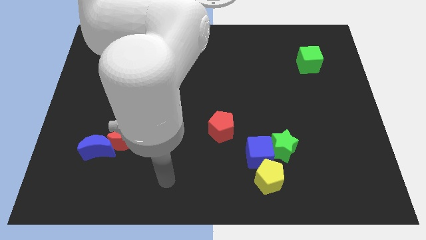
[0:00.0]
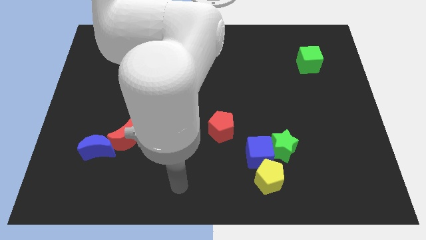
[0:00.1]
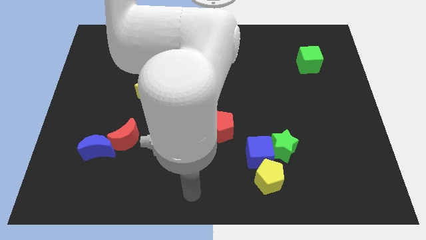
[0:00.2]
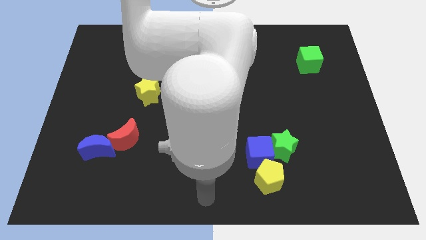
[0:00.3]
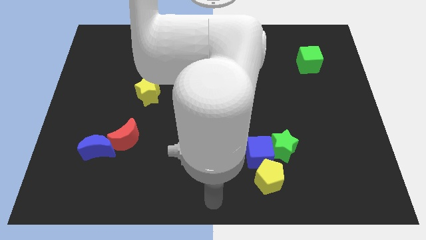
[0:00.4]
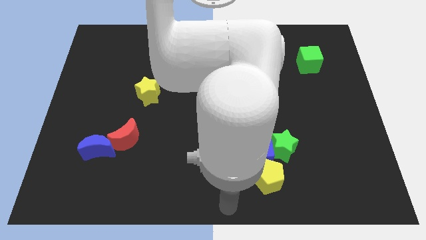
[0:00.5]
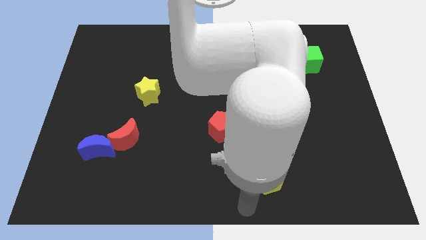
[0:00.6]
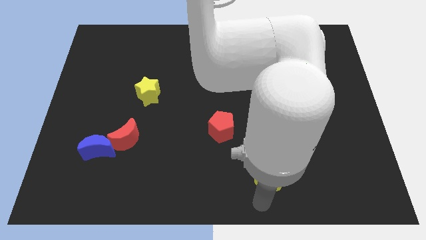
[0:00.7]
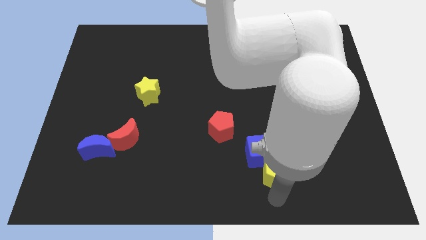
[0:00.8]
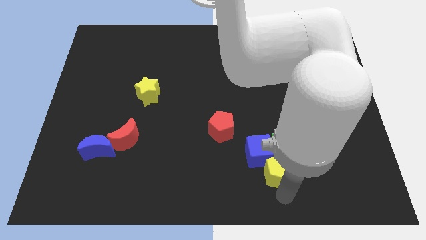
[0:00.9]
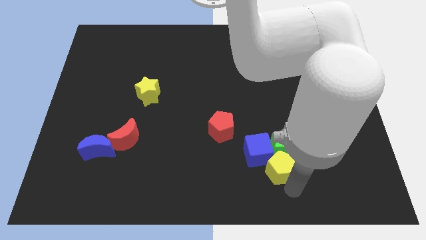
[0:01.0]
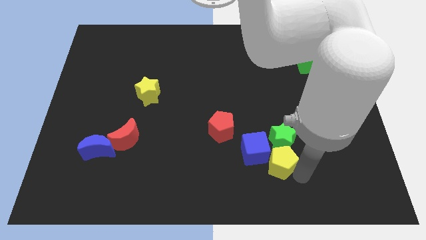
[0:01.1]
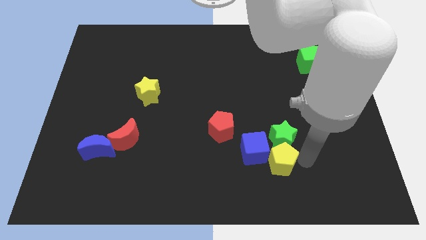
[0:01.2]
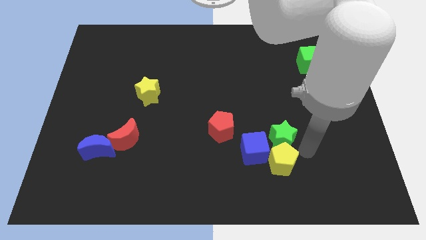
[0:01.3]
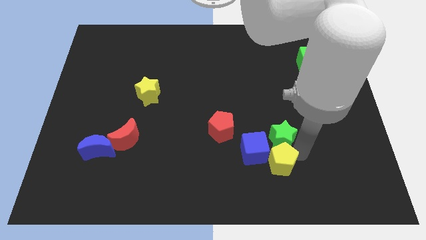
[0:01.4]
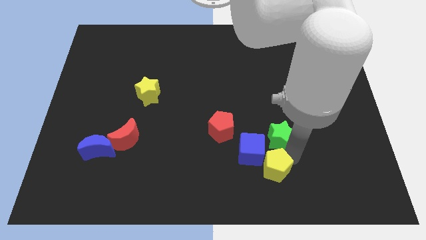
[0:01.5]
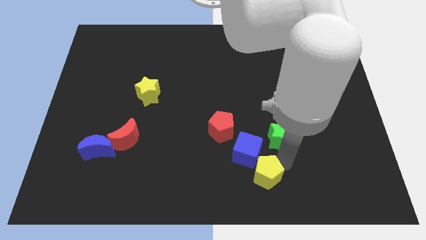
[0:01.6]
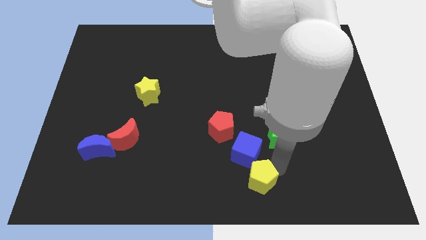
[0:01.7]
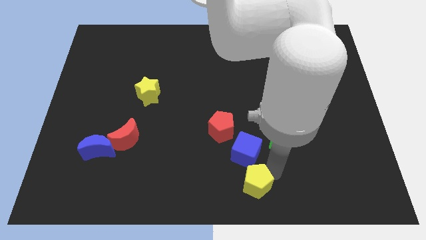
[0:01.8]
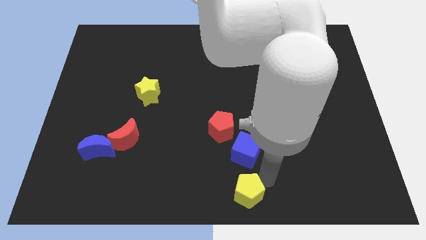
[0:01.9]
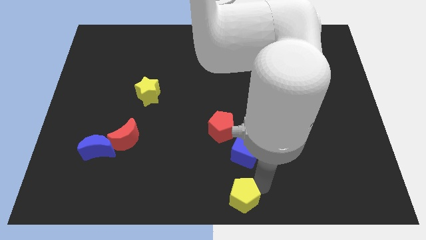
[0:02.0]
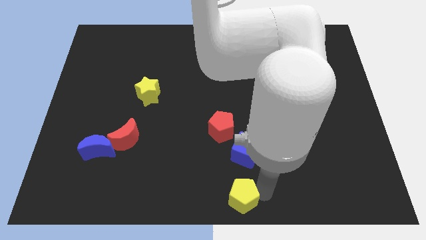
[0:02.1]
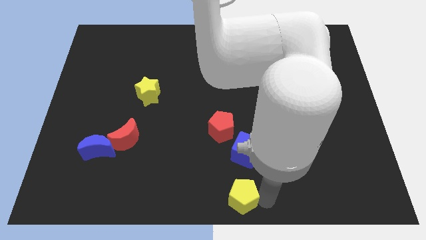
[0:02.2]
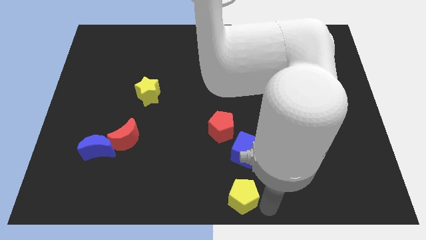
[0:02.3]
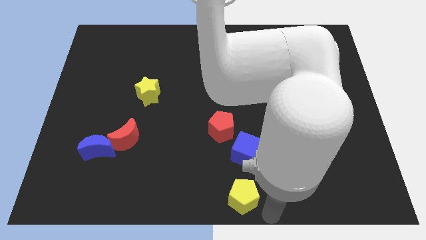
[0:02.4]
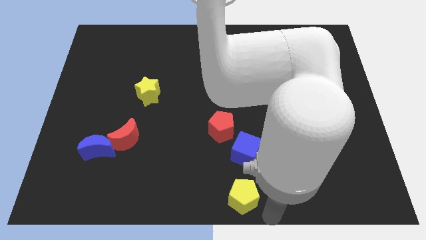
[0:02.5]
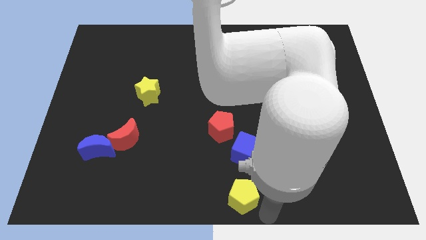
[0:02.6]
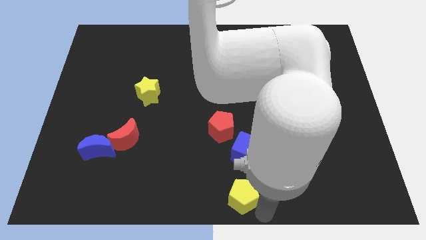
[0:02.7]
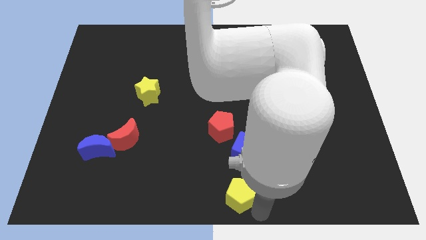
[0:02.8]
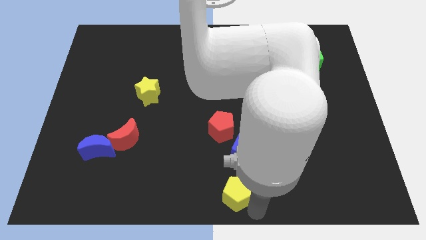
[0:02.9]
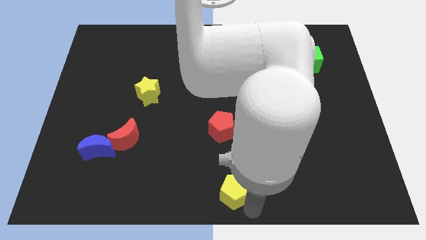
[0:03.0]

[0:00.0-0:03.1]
slide the yellow pentagon slightly left

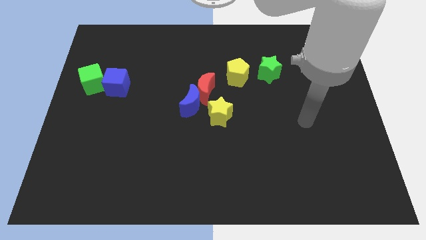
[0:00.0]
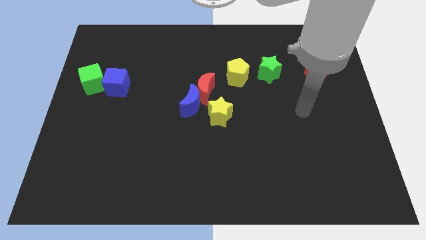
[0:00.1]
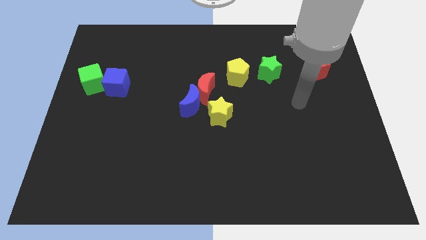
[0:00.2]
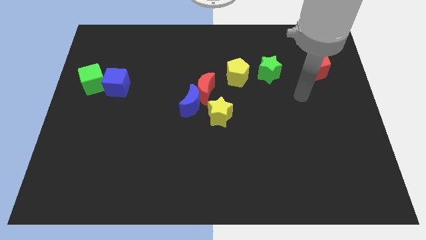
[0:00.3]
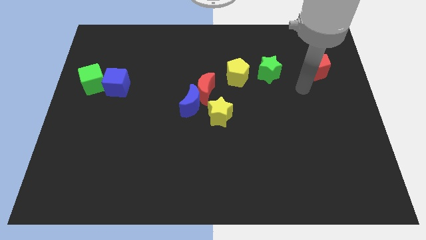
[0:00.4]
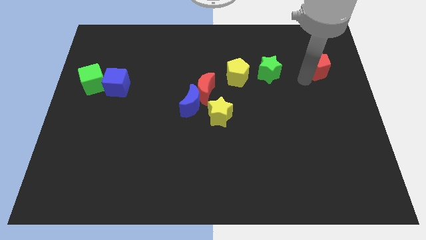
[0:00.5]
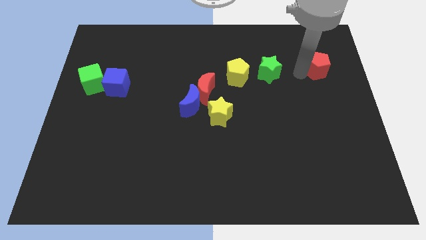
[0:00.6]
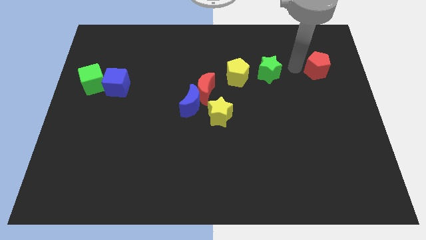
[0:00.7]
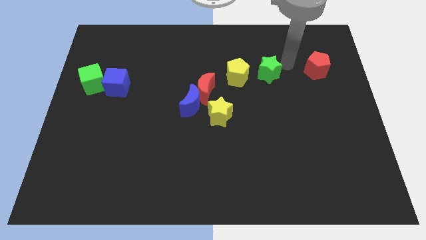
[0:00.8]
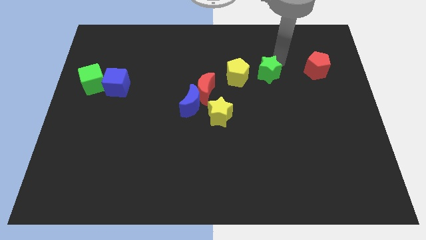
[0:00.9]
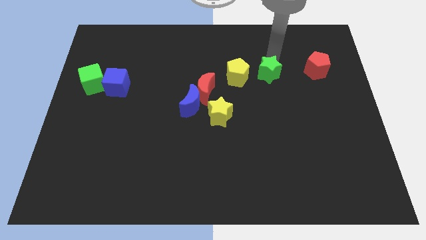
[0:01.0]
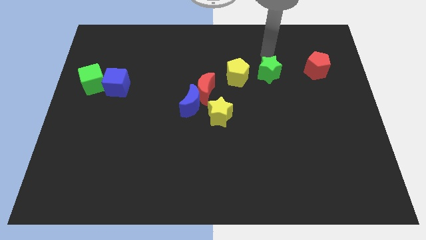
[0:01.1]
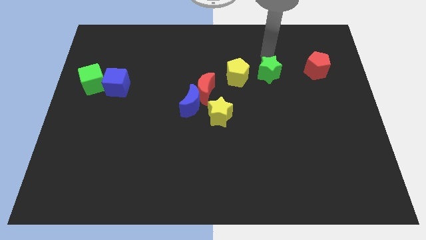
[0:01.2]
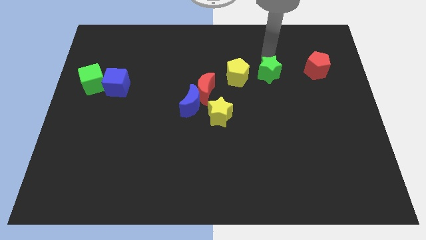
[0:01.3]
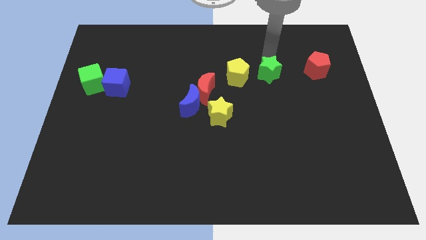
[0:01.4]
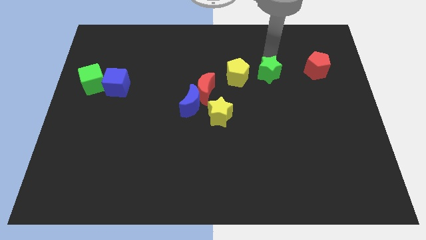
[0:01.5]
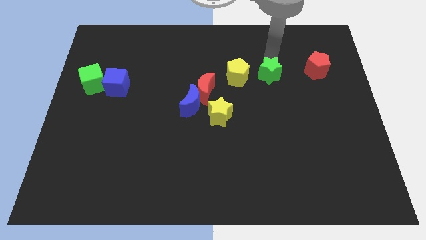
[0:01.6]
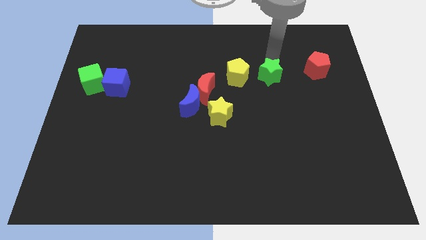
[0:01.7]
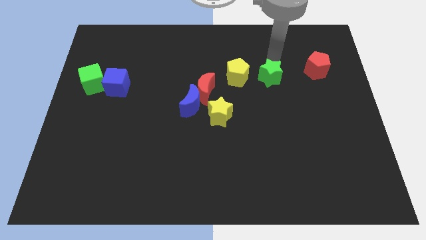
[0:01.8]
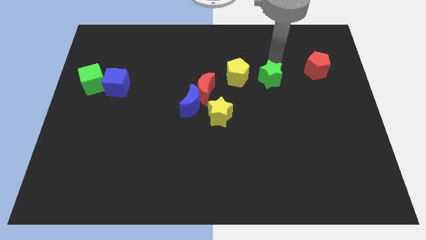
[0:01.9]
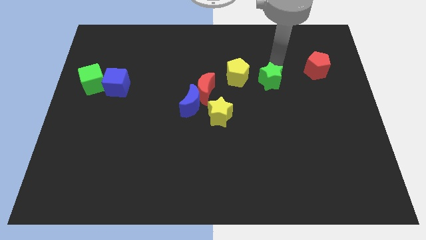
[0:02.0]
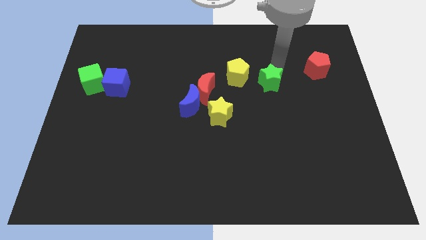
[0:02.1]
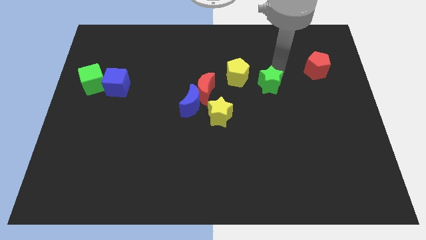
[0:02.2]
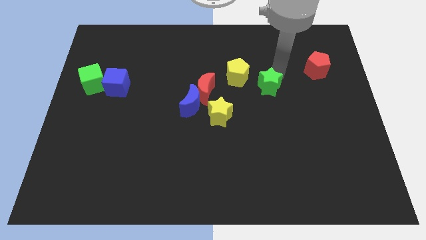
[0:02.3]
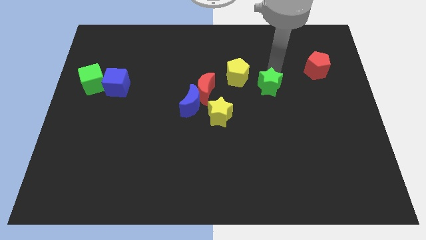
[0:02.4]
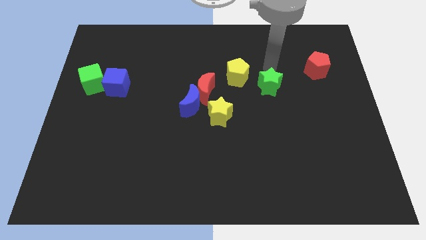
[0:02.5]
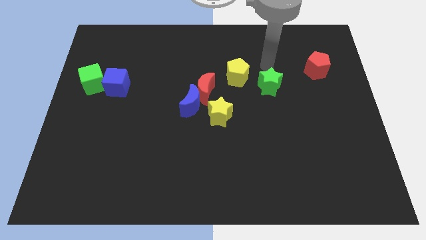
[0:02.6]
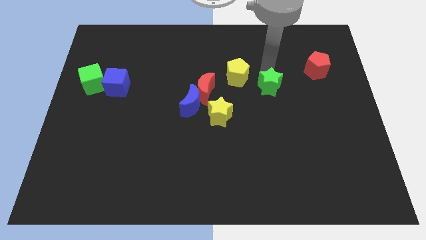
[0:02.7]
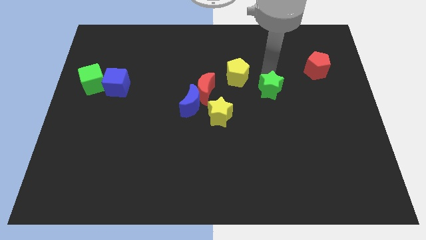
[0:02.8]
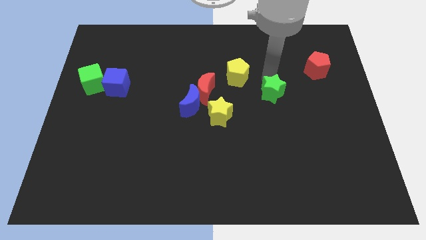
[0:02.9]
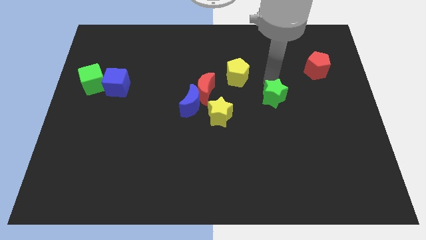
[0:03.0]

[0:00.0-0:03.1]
slightly slide the green star down

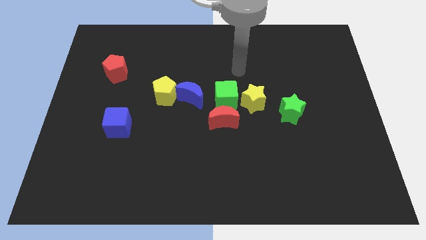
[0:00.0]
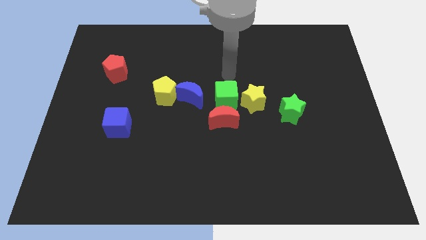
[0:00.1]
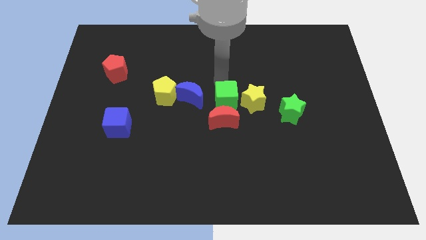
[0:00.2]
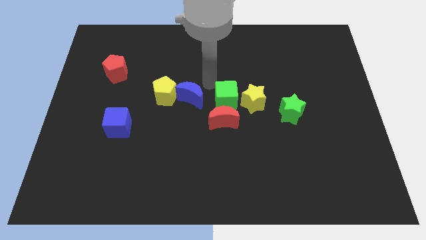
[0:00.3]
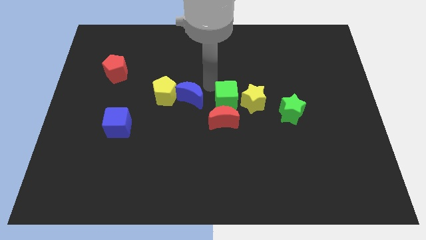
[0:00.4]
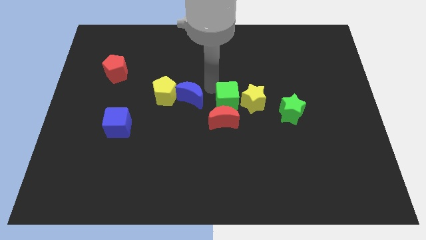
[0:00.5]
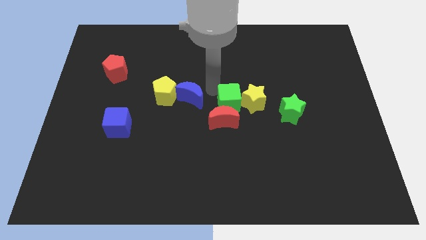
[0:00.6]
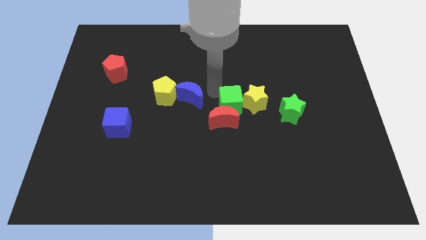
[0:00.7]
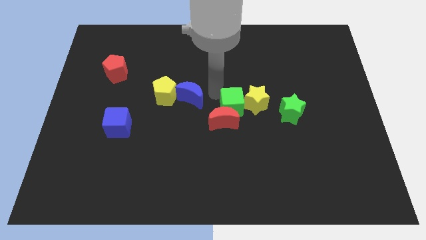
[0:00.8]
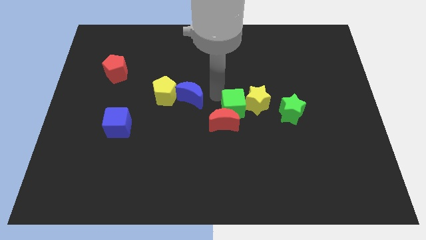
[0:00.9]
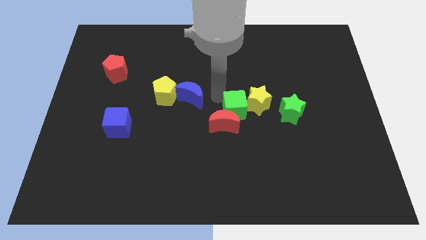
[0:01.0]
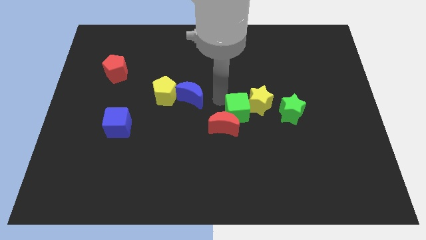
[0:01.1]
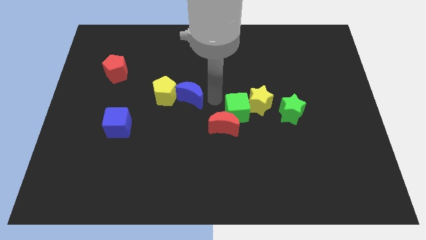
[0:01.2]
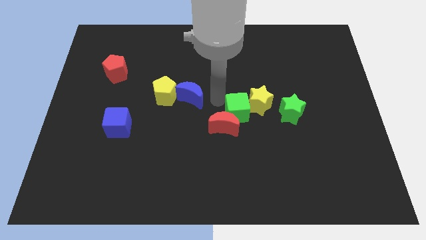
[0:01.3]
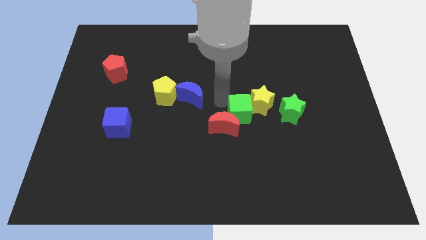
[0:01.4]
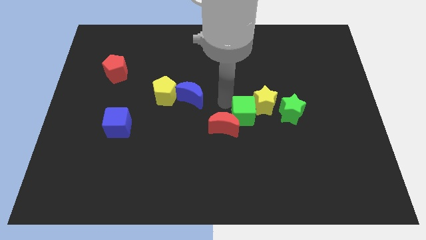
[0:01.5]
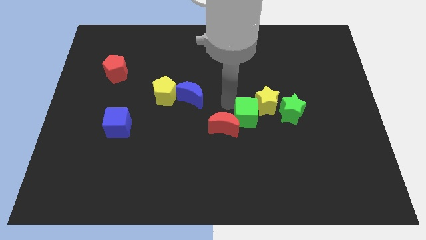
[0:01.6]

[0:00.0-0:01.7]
move the green cube slightly down and right
